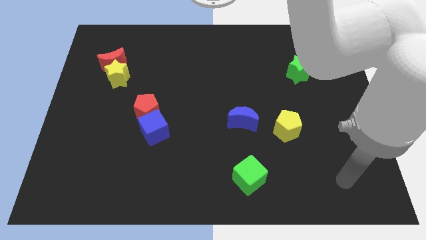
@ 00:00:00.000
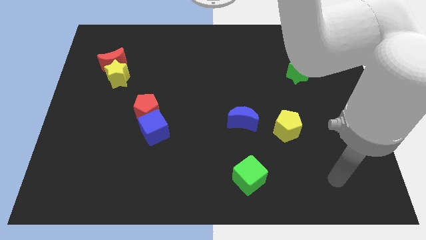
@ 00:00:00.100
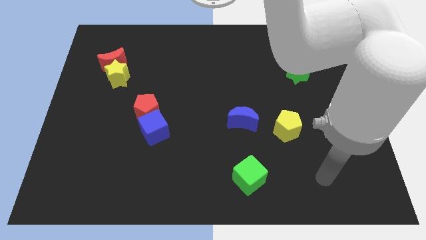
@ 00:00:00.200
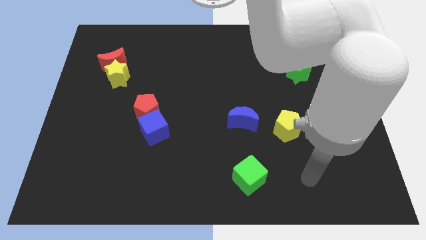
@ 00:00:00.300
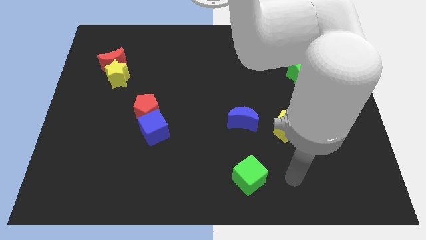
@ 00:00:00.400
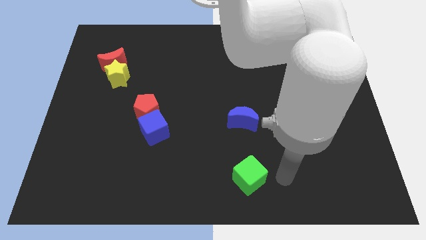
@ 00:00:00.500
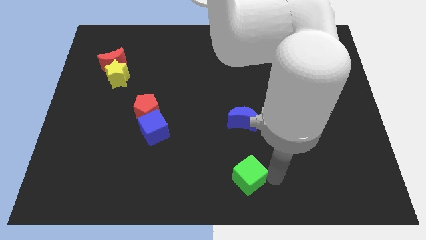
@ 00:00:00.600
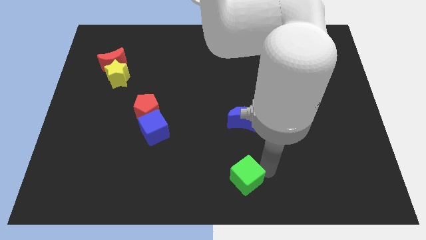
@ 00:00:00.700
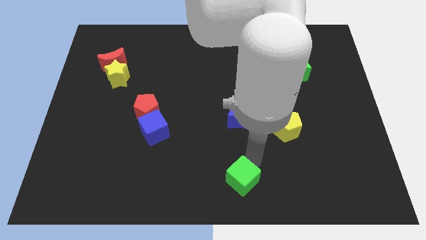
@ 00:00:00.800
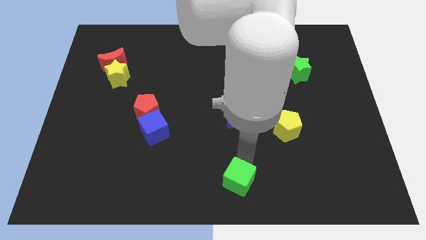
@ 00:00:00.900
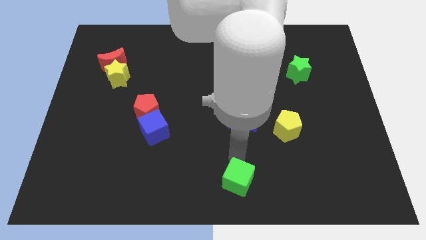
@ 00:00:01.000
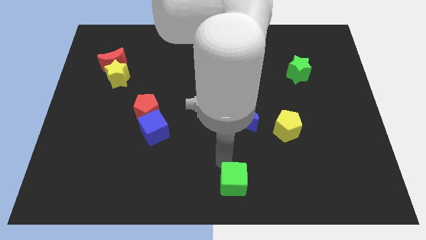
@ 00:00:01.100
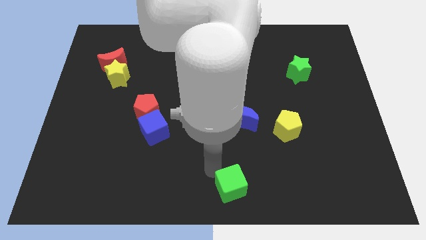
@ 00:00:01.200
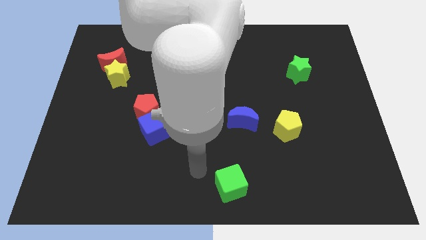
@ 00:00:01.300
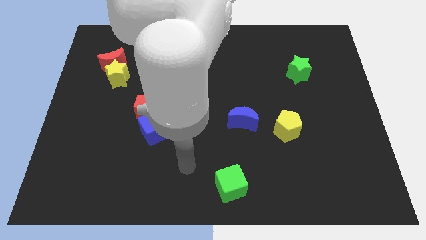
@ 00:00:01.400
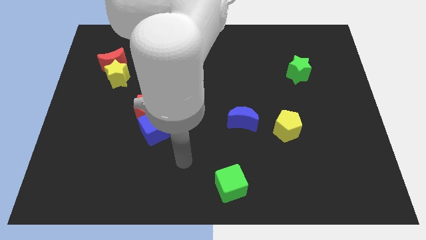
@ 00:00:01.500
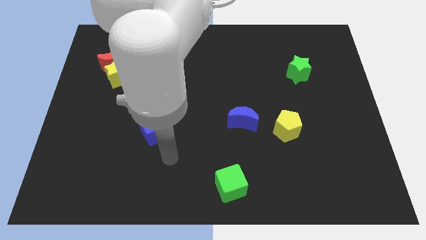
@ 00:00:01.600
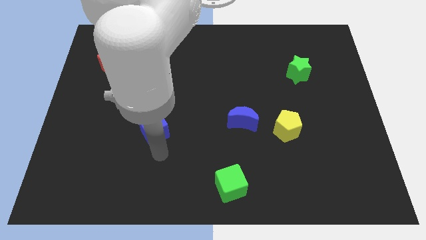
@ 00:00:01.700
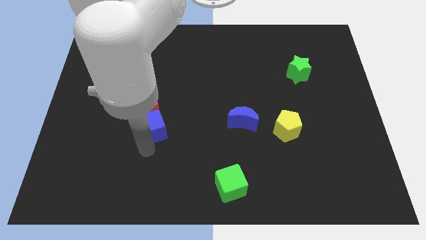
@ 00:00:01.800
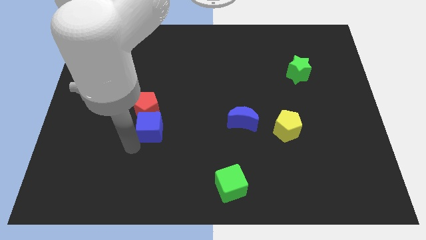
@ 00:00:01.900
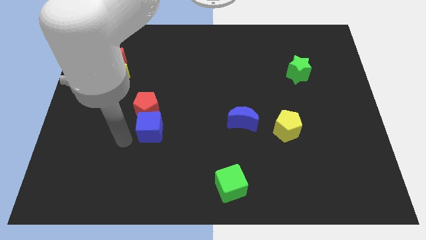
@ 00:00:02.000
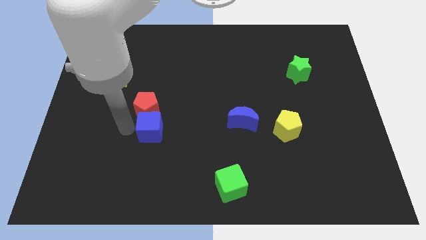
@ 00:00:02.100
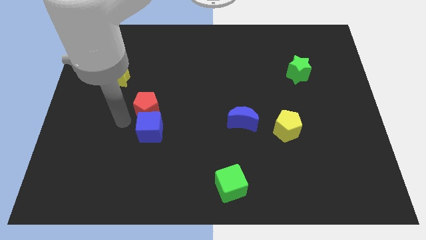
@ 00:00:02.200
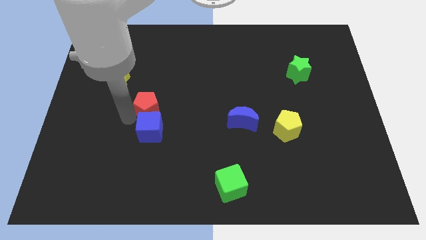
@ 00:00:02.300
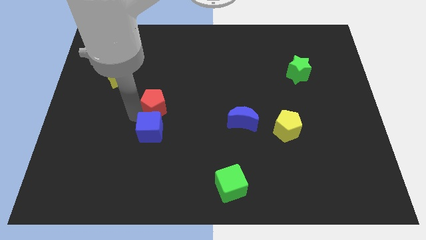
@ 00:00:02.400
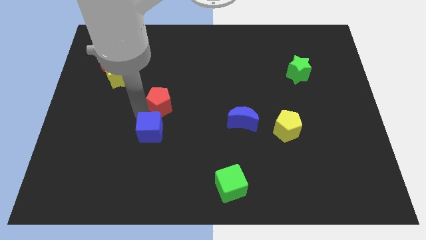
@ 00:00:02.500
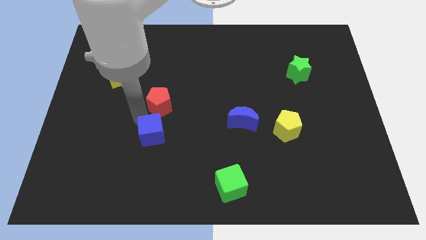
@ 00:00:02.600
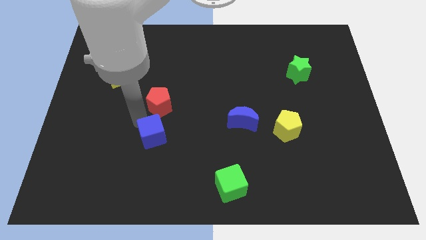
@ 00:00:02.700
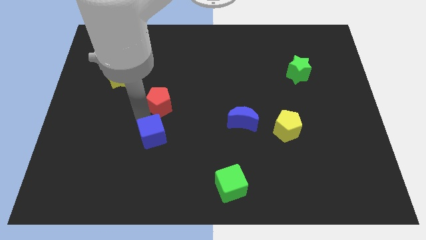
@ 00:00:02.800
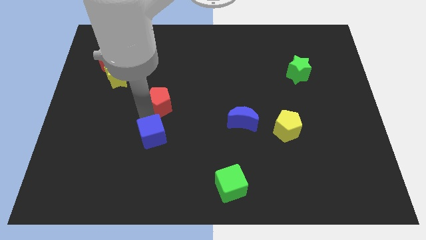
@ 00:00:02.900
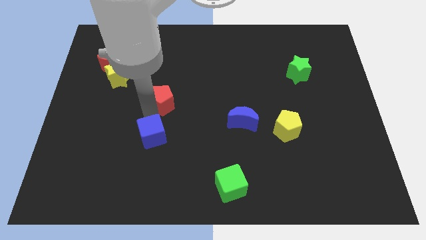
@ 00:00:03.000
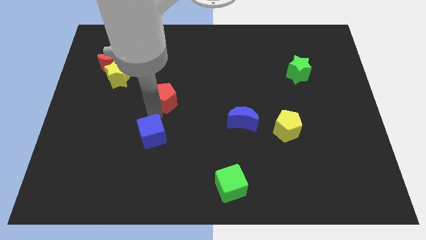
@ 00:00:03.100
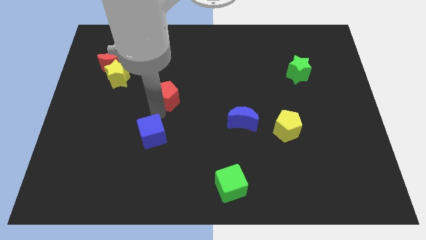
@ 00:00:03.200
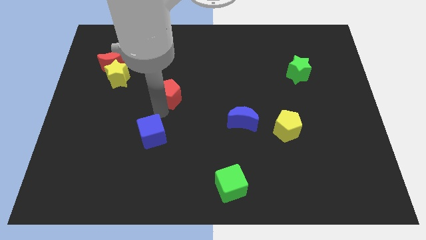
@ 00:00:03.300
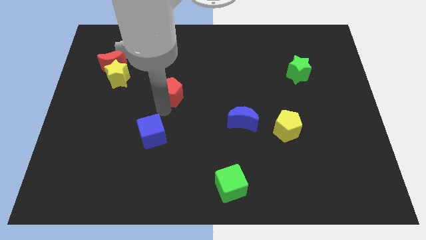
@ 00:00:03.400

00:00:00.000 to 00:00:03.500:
slightly slide the red pentagon upwards and then right

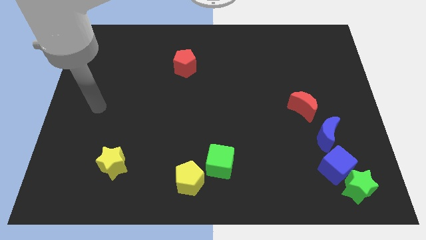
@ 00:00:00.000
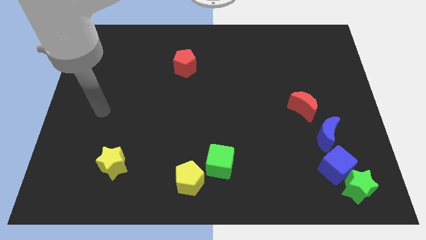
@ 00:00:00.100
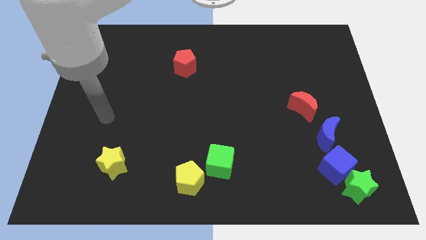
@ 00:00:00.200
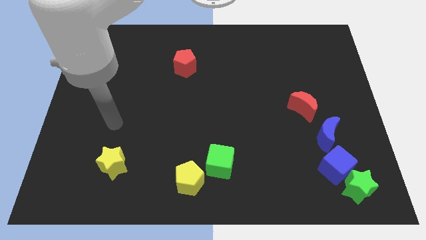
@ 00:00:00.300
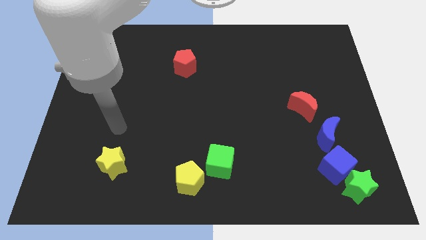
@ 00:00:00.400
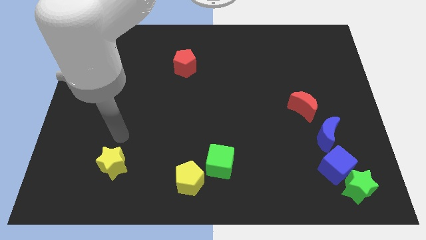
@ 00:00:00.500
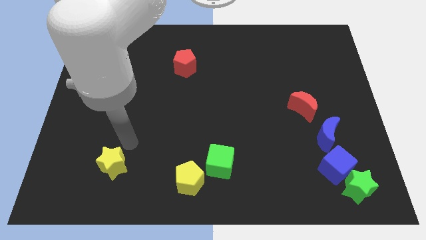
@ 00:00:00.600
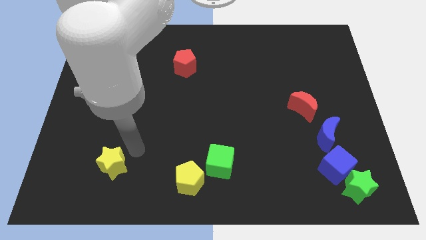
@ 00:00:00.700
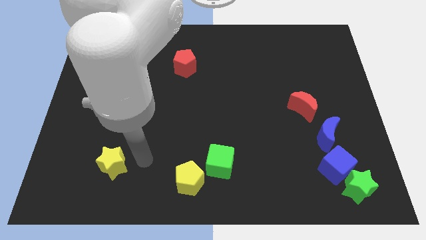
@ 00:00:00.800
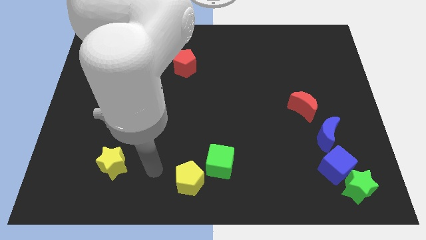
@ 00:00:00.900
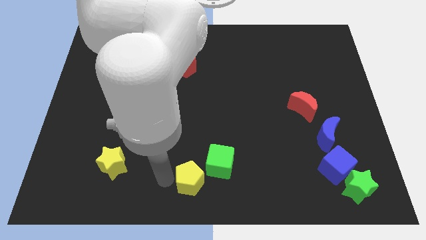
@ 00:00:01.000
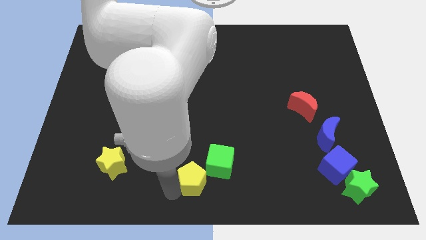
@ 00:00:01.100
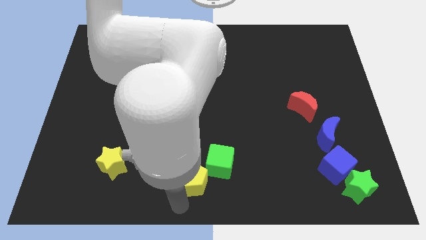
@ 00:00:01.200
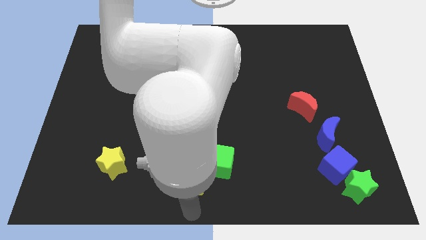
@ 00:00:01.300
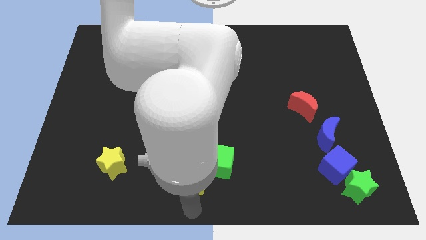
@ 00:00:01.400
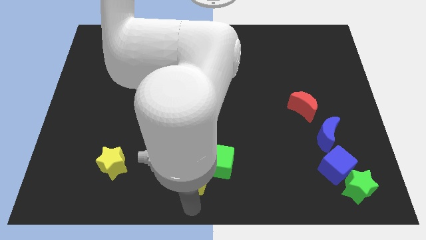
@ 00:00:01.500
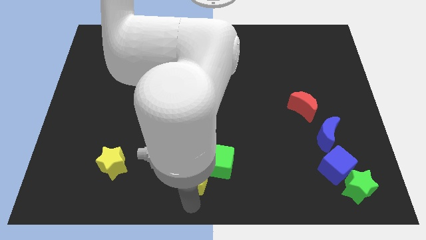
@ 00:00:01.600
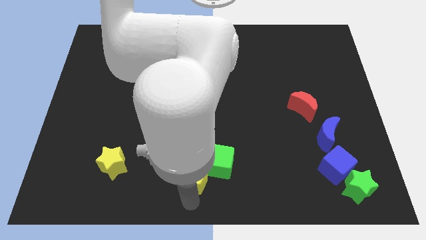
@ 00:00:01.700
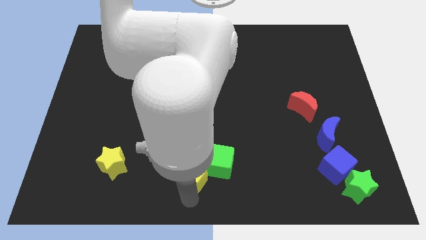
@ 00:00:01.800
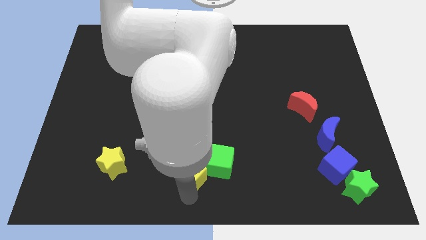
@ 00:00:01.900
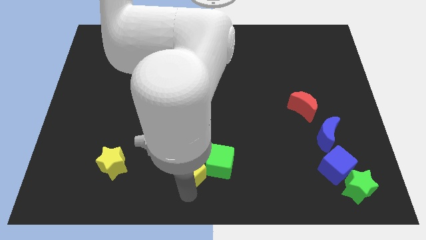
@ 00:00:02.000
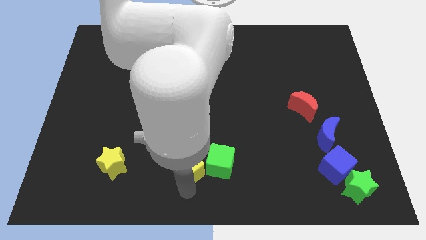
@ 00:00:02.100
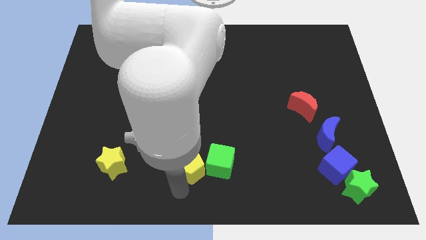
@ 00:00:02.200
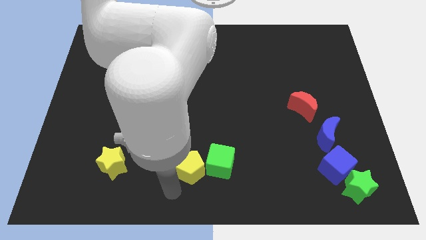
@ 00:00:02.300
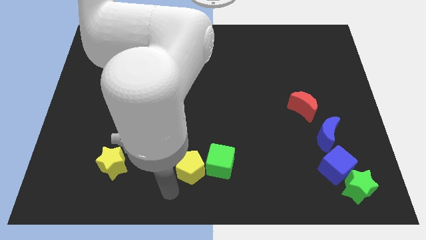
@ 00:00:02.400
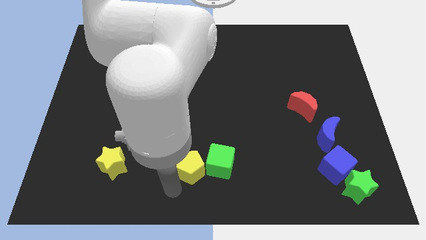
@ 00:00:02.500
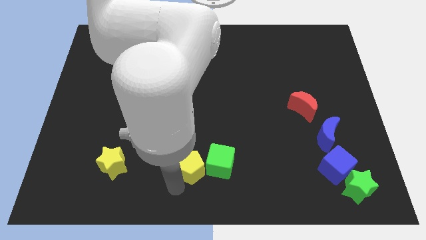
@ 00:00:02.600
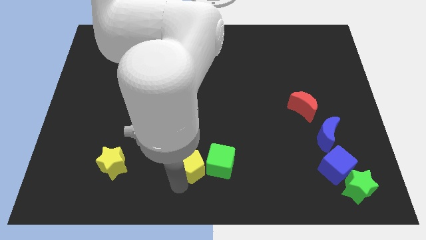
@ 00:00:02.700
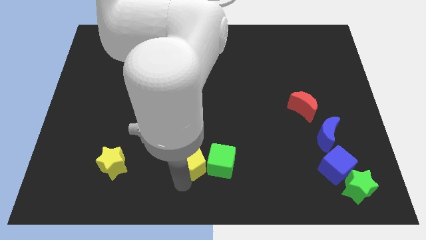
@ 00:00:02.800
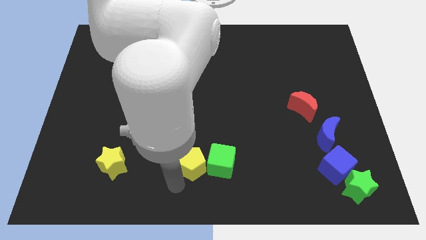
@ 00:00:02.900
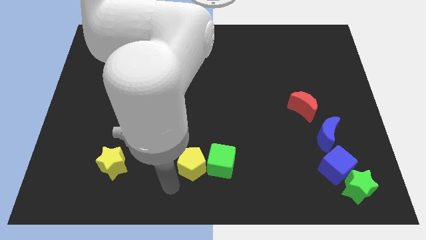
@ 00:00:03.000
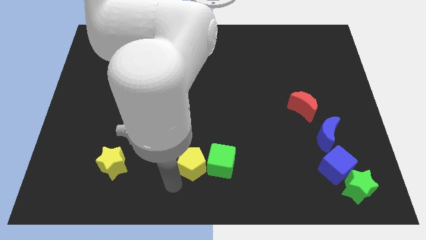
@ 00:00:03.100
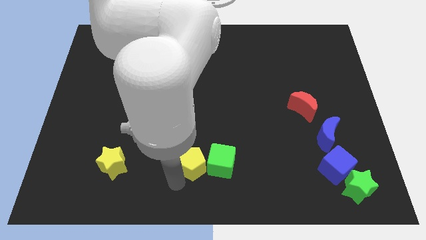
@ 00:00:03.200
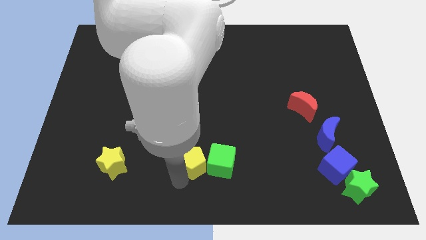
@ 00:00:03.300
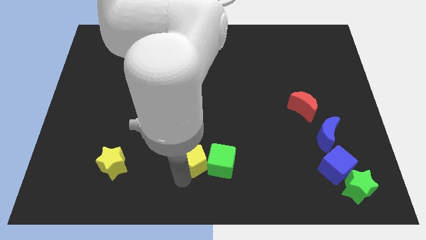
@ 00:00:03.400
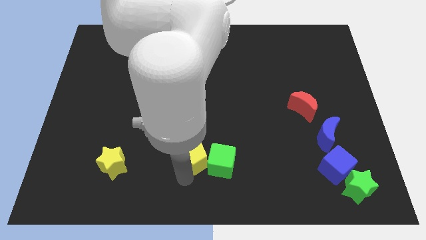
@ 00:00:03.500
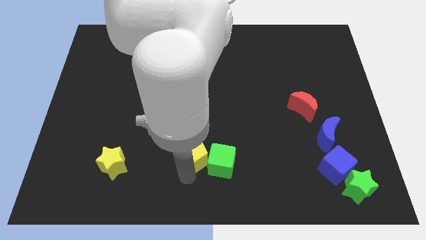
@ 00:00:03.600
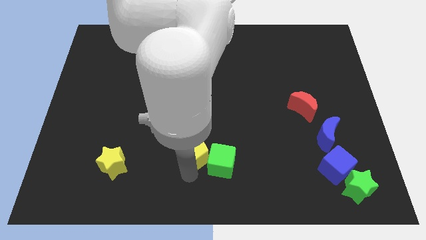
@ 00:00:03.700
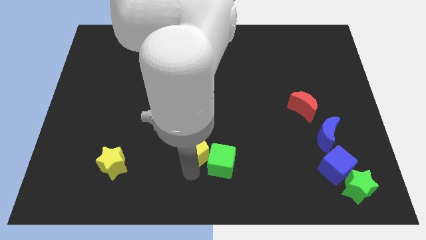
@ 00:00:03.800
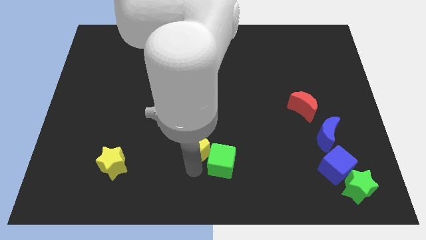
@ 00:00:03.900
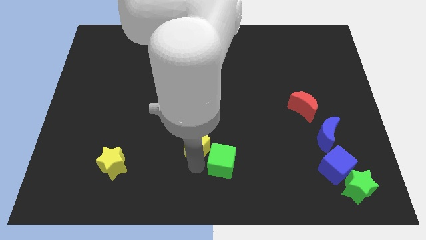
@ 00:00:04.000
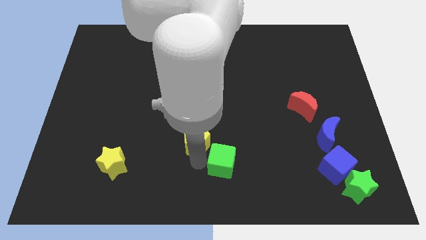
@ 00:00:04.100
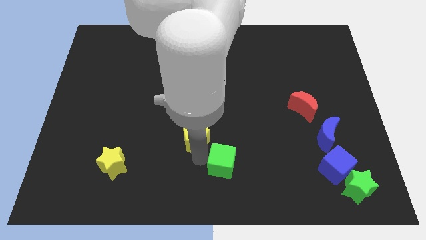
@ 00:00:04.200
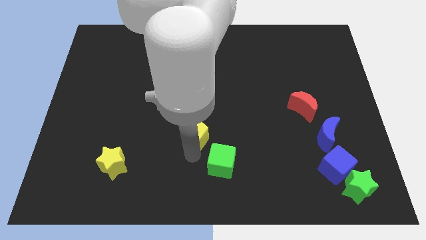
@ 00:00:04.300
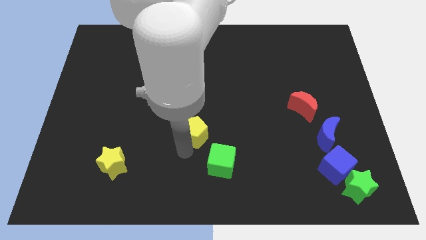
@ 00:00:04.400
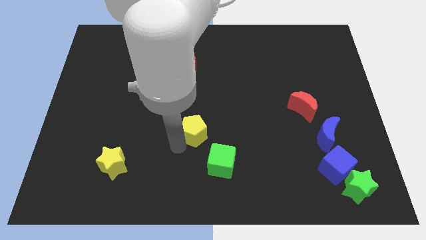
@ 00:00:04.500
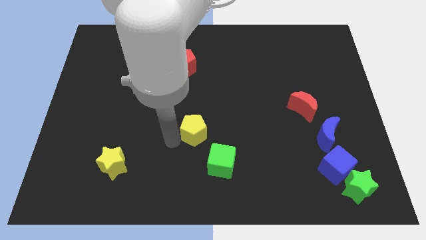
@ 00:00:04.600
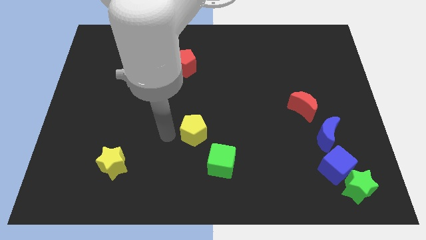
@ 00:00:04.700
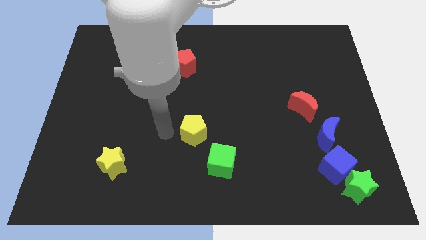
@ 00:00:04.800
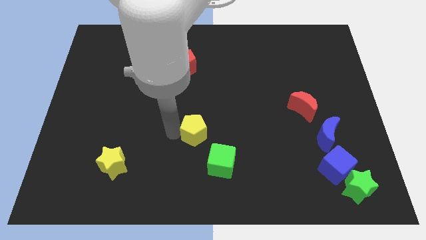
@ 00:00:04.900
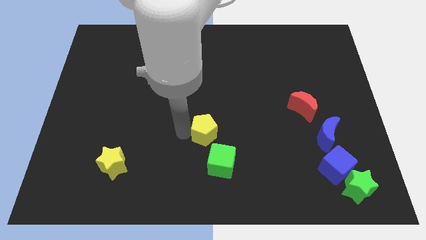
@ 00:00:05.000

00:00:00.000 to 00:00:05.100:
slightly move the yellow pentagon up and to the right diagonally
